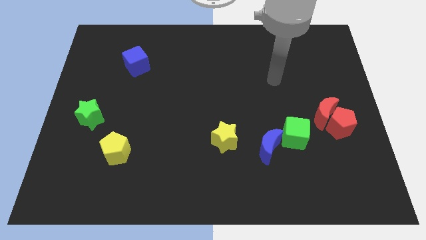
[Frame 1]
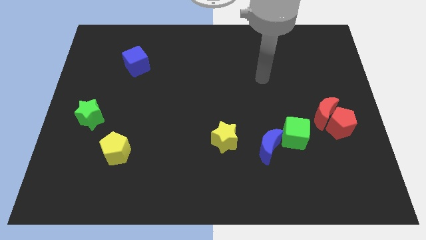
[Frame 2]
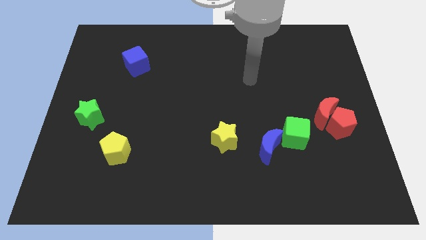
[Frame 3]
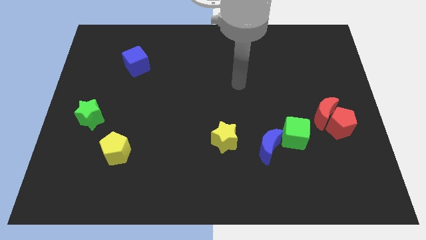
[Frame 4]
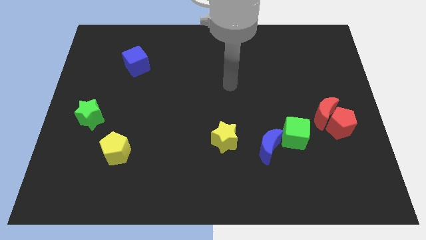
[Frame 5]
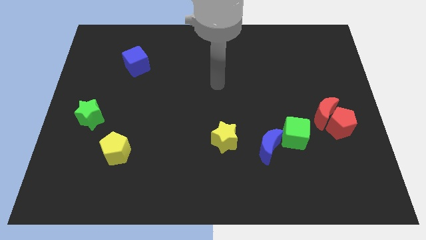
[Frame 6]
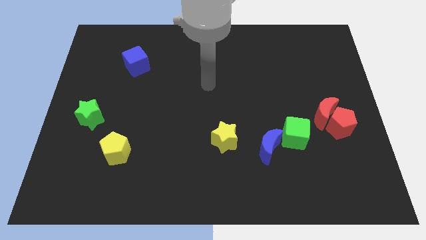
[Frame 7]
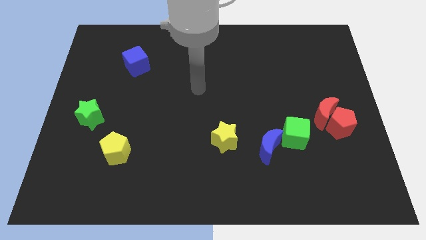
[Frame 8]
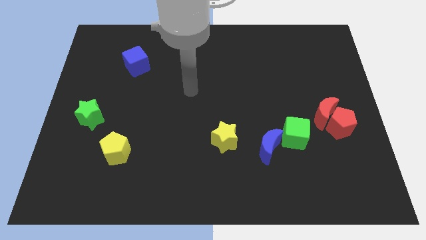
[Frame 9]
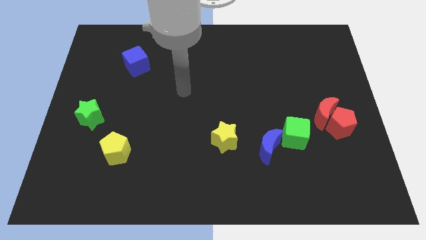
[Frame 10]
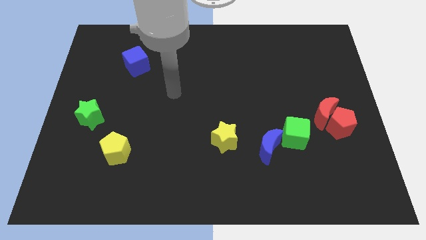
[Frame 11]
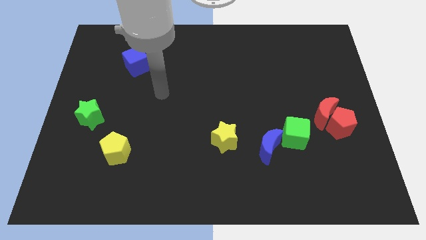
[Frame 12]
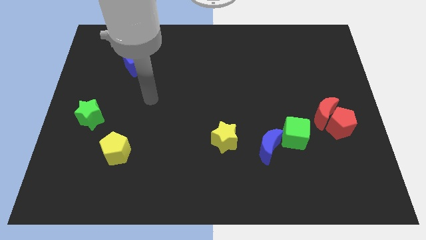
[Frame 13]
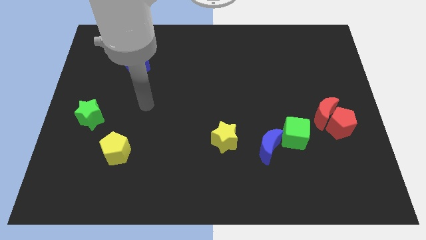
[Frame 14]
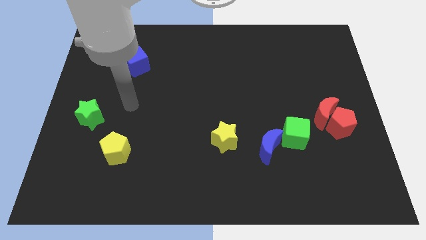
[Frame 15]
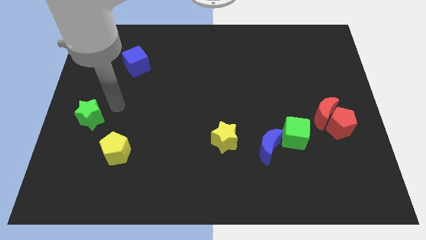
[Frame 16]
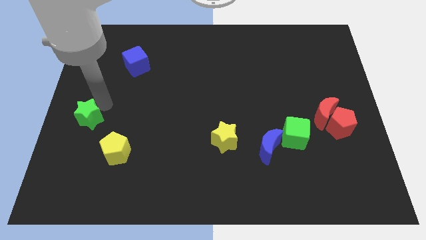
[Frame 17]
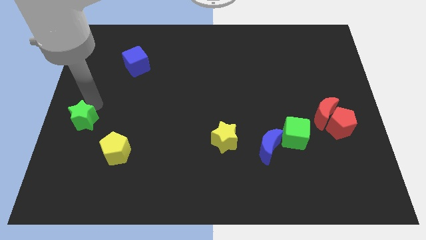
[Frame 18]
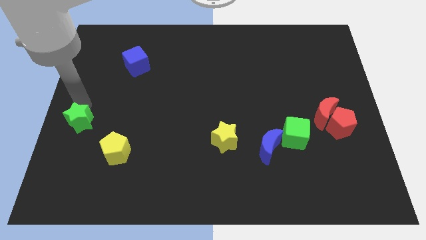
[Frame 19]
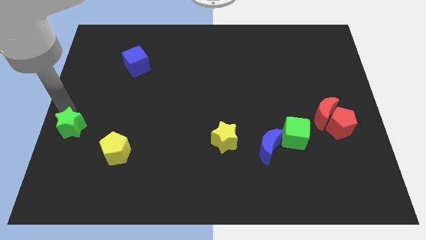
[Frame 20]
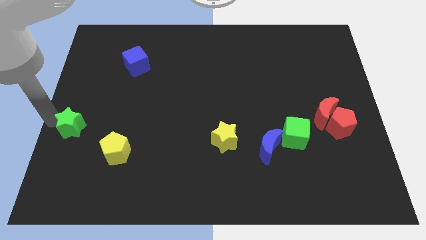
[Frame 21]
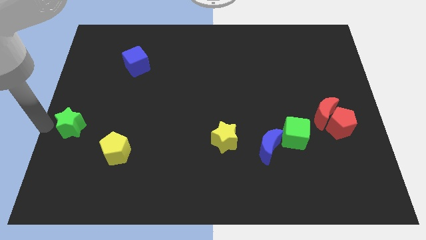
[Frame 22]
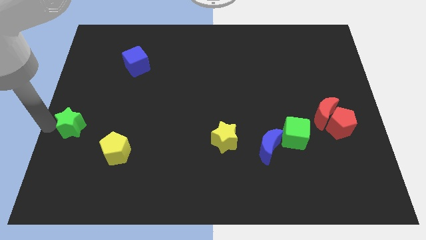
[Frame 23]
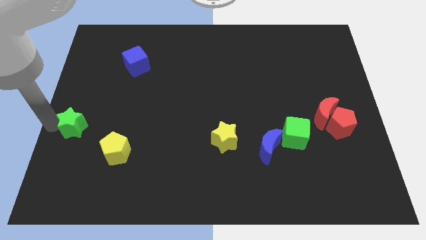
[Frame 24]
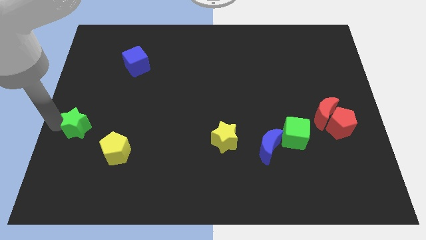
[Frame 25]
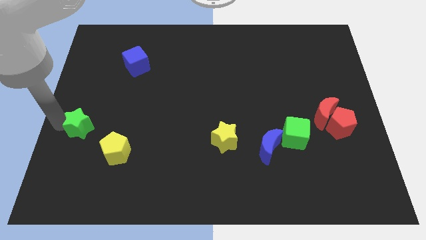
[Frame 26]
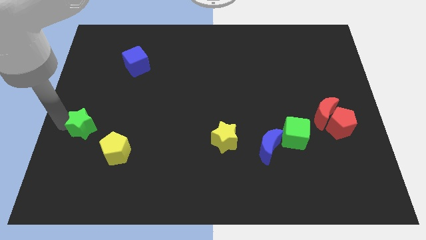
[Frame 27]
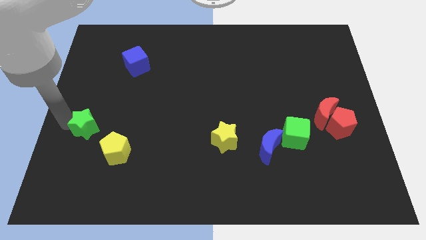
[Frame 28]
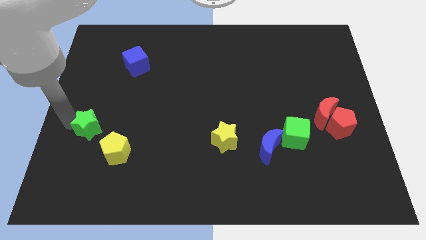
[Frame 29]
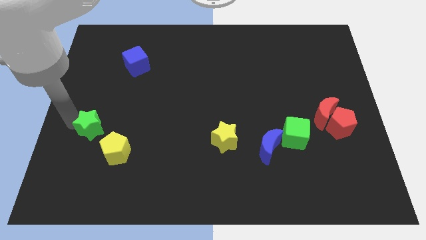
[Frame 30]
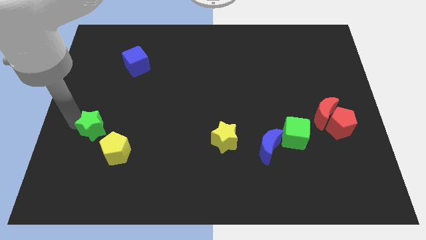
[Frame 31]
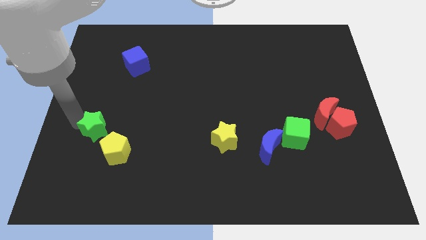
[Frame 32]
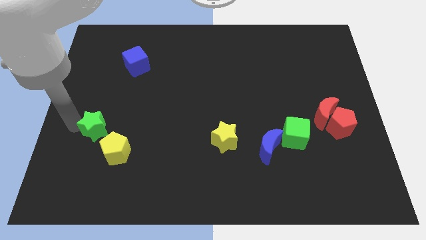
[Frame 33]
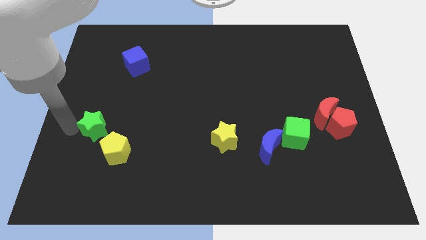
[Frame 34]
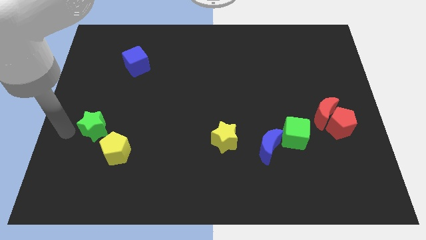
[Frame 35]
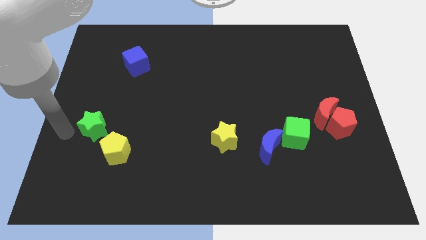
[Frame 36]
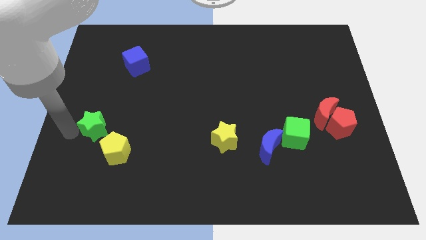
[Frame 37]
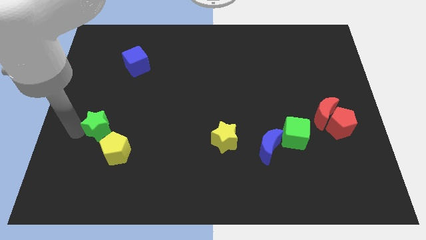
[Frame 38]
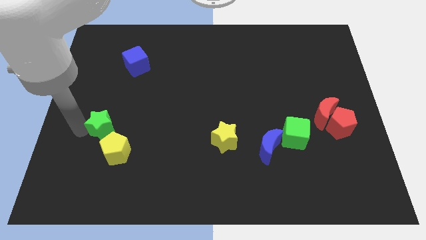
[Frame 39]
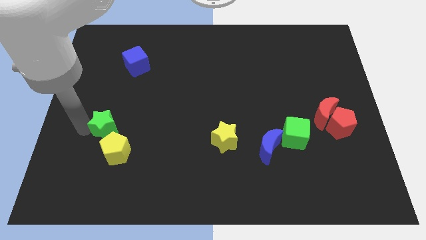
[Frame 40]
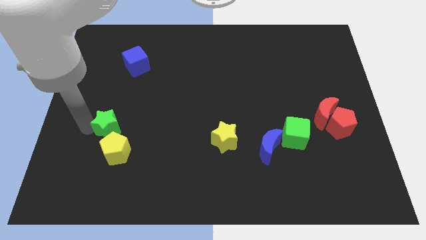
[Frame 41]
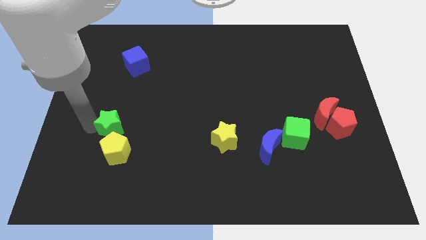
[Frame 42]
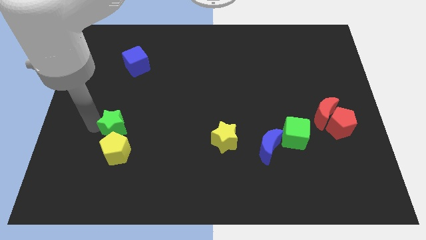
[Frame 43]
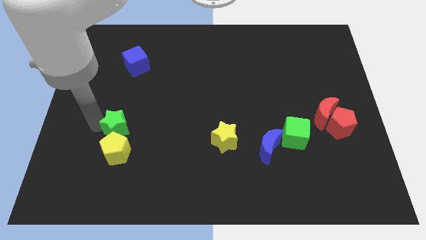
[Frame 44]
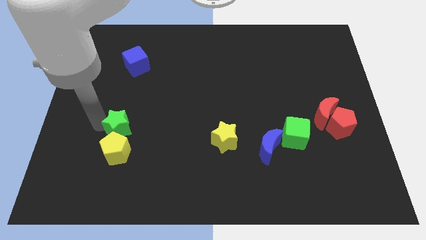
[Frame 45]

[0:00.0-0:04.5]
slightly slide the green star down and right diagonally

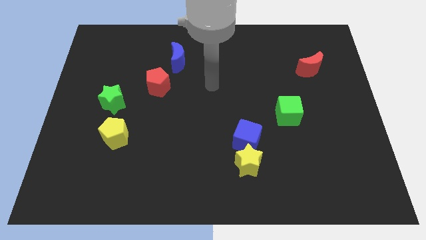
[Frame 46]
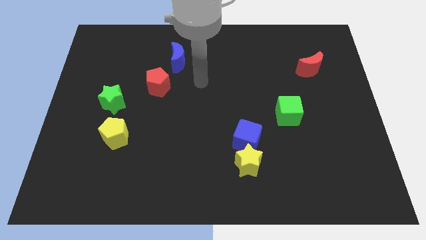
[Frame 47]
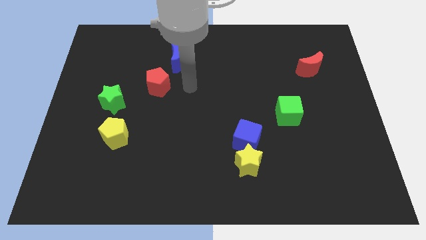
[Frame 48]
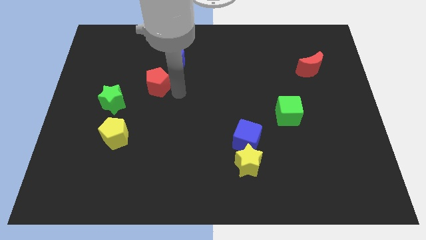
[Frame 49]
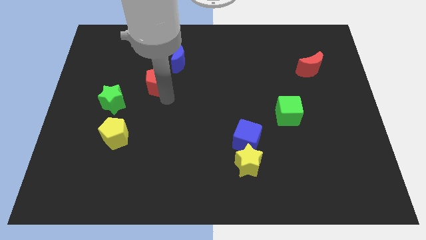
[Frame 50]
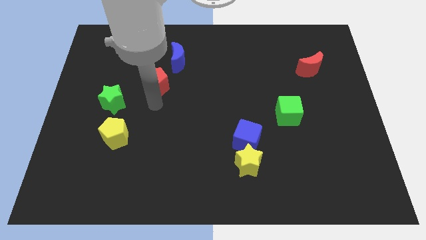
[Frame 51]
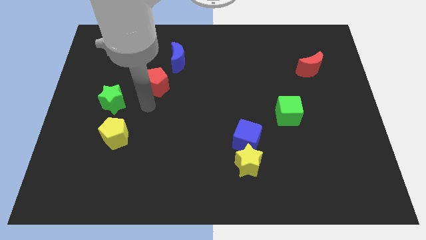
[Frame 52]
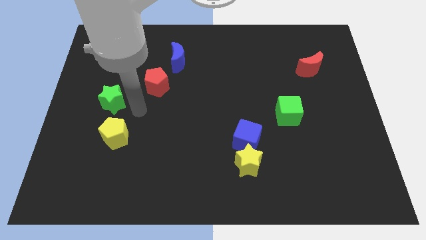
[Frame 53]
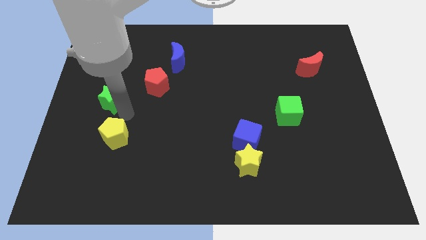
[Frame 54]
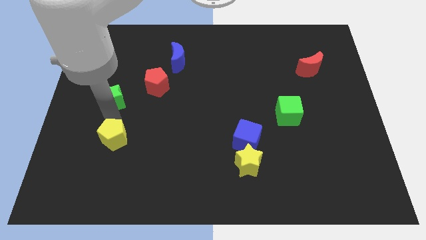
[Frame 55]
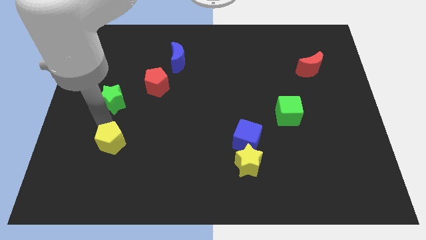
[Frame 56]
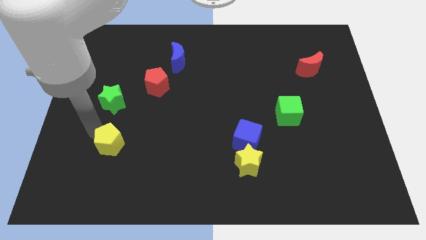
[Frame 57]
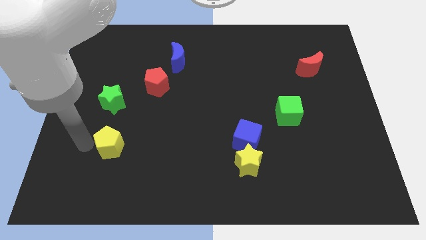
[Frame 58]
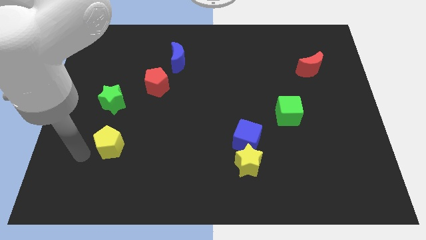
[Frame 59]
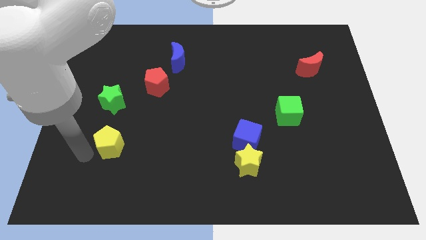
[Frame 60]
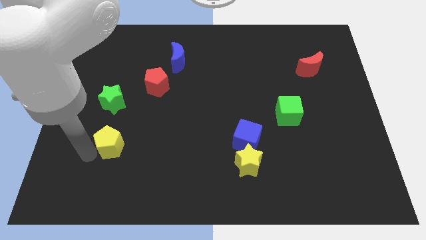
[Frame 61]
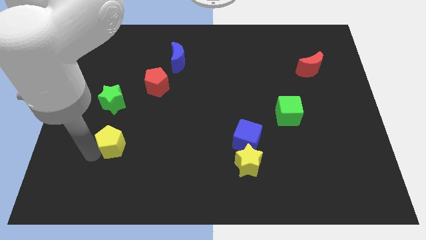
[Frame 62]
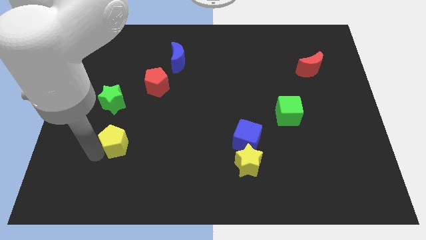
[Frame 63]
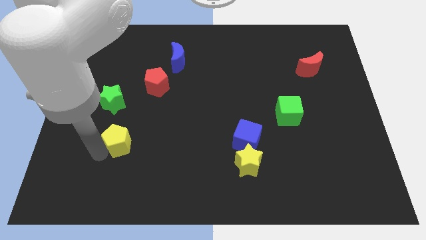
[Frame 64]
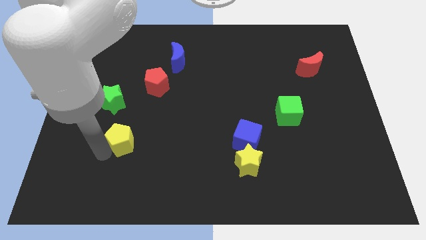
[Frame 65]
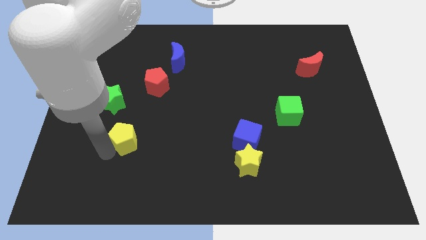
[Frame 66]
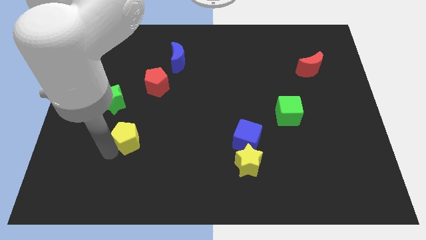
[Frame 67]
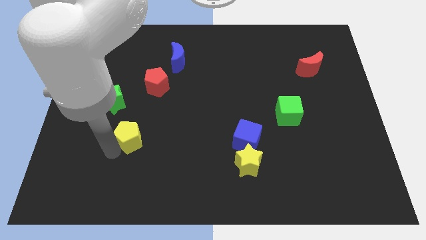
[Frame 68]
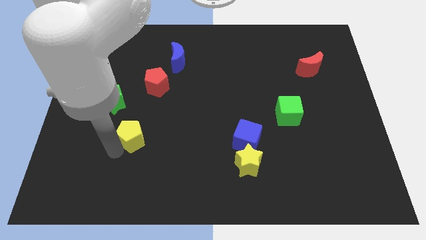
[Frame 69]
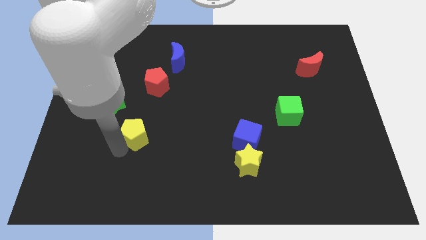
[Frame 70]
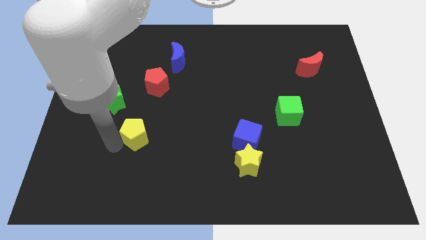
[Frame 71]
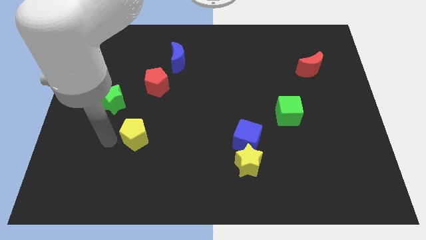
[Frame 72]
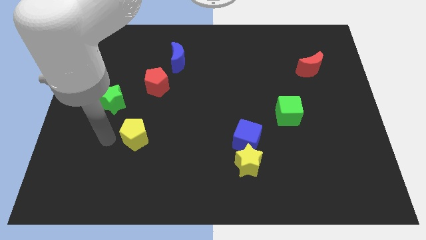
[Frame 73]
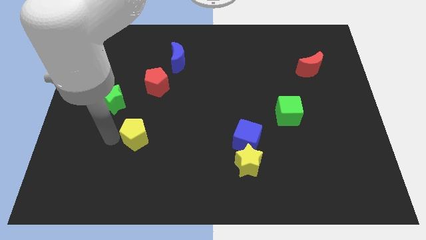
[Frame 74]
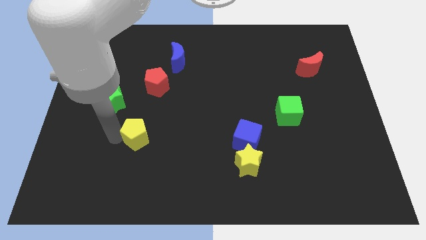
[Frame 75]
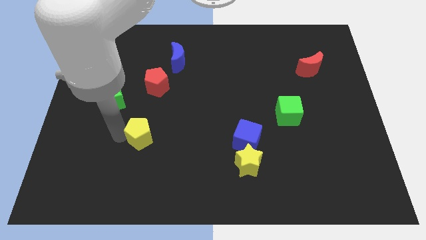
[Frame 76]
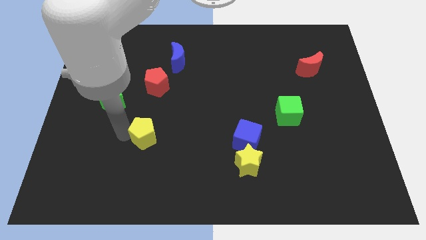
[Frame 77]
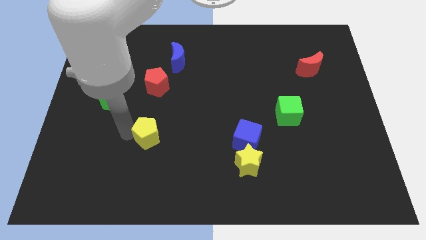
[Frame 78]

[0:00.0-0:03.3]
move the yellow pentagon to the right slightly
